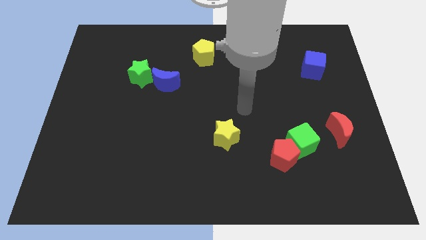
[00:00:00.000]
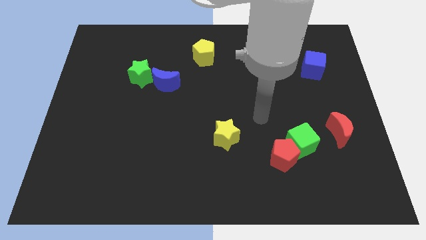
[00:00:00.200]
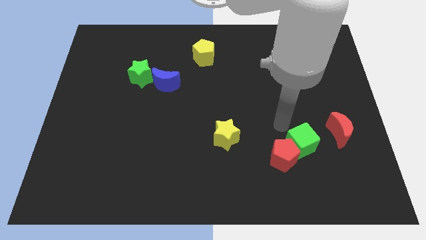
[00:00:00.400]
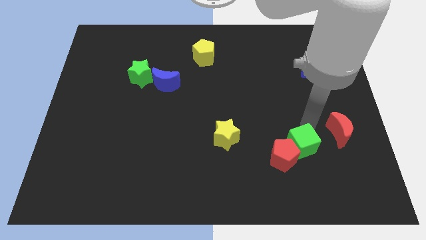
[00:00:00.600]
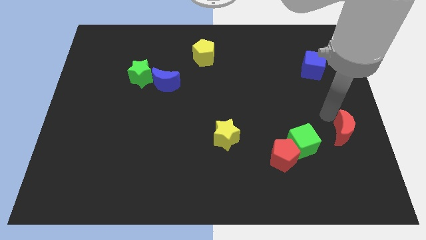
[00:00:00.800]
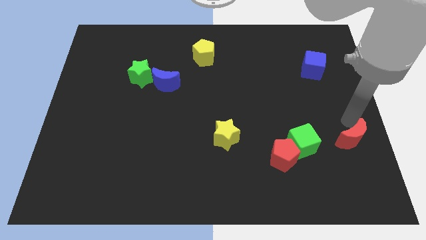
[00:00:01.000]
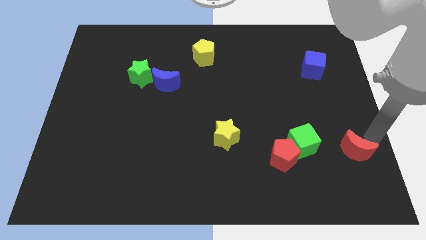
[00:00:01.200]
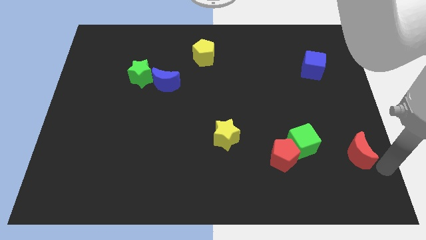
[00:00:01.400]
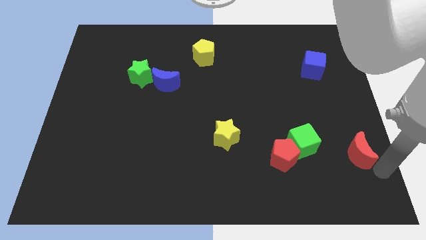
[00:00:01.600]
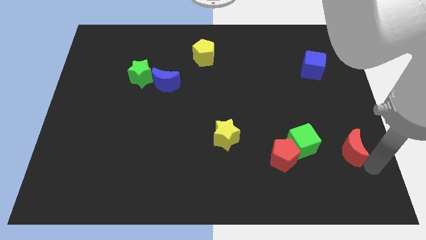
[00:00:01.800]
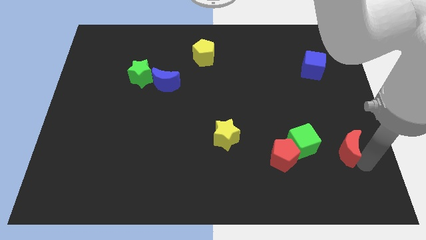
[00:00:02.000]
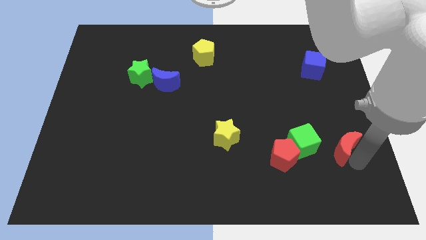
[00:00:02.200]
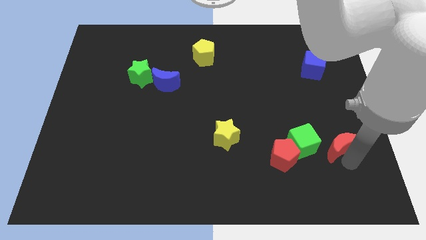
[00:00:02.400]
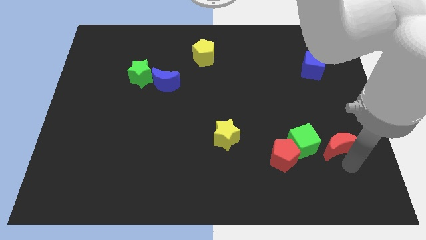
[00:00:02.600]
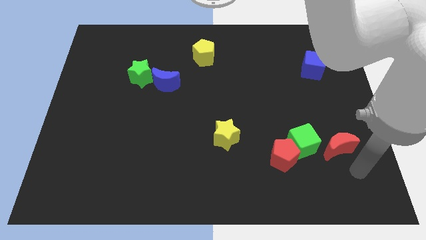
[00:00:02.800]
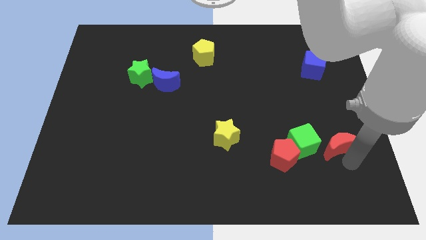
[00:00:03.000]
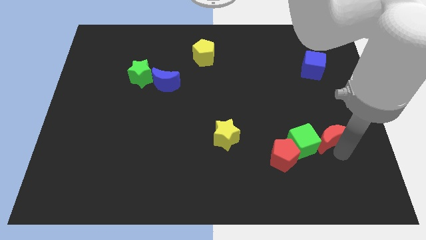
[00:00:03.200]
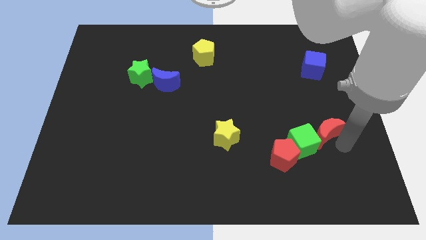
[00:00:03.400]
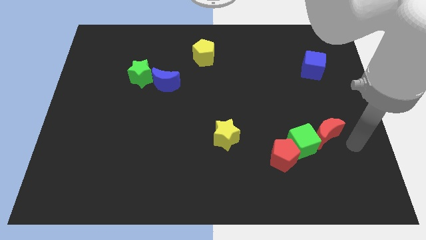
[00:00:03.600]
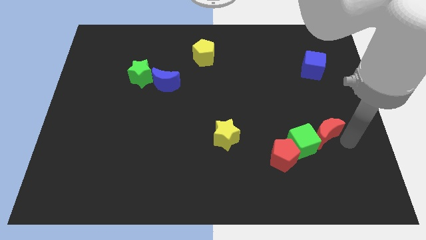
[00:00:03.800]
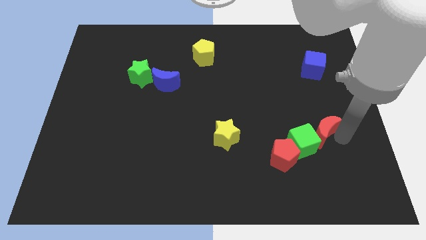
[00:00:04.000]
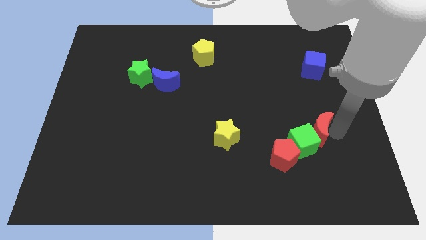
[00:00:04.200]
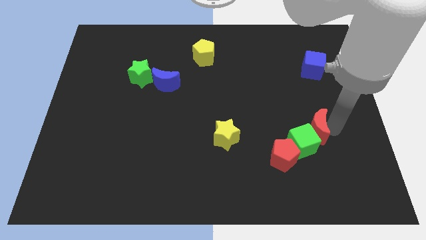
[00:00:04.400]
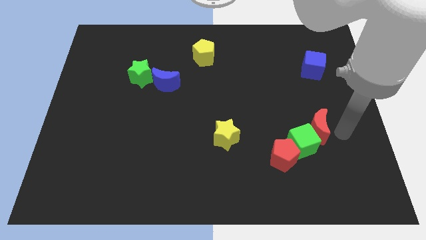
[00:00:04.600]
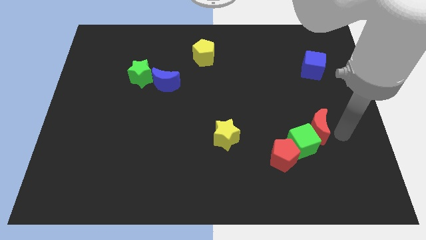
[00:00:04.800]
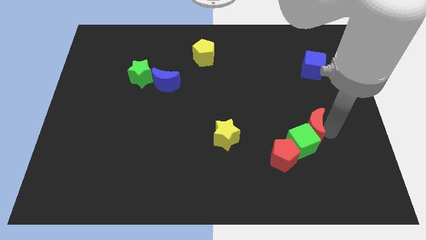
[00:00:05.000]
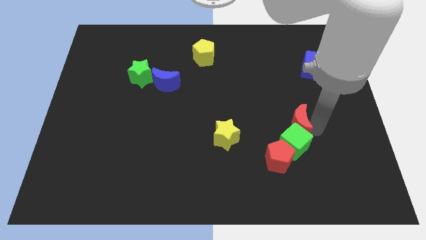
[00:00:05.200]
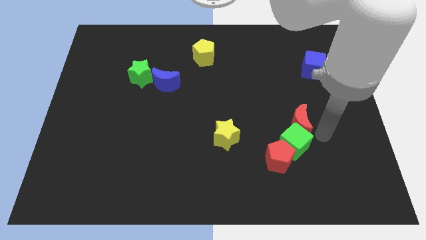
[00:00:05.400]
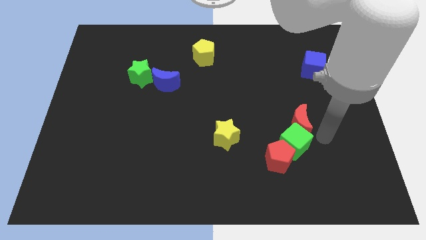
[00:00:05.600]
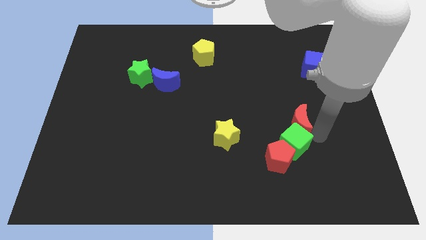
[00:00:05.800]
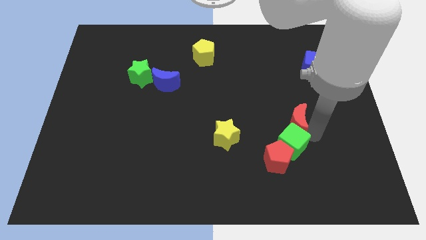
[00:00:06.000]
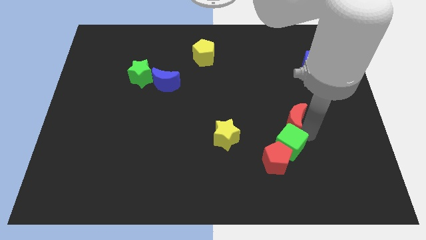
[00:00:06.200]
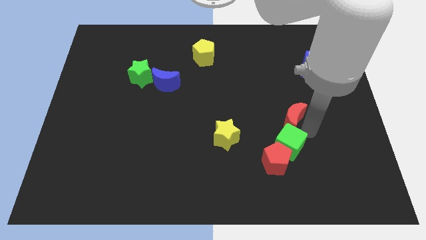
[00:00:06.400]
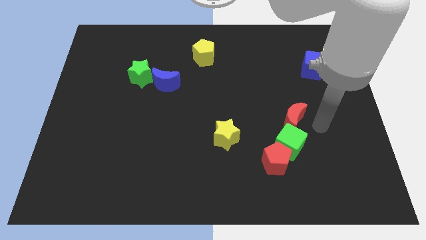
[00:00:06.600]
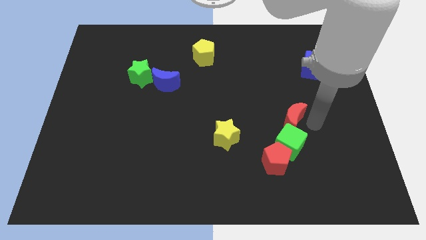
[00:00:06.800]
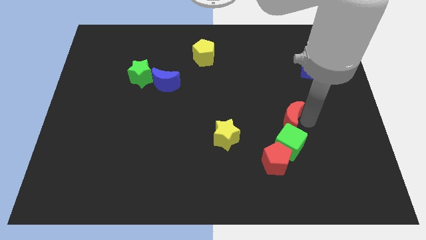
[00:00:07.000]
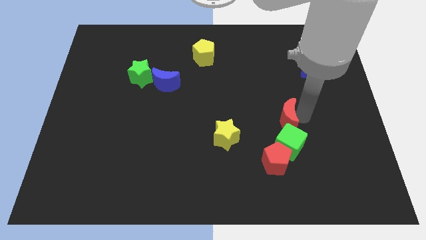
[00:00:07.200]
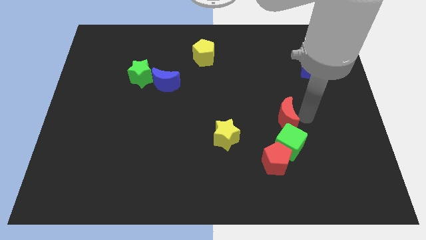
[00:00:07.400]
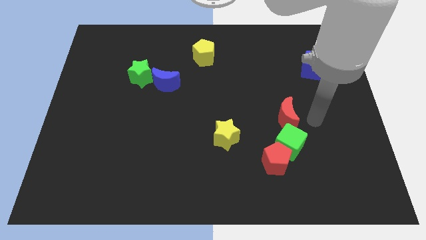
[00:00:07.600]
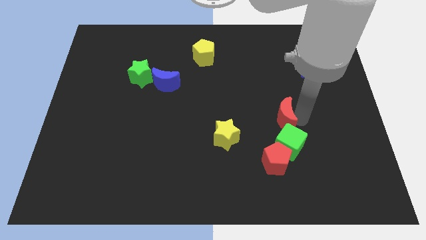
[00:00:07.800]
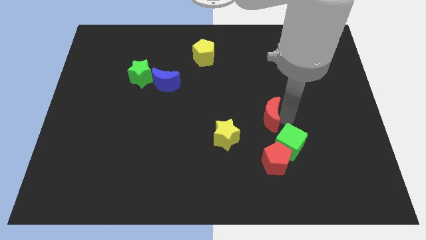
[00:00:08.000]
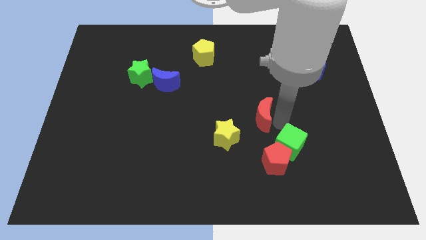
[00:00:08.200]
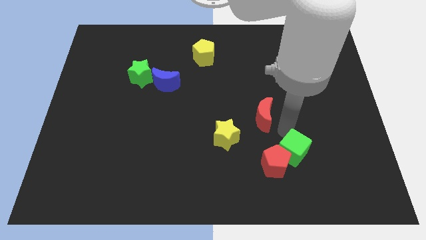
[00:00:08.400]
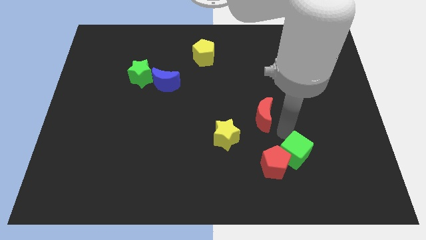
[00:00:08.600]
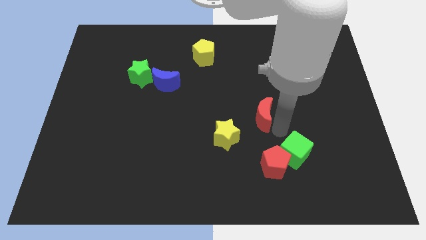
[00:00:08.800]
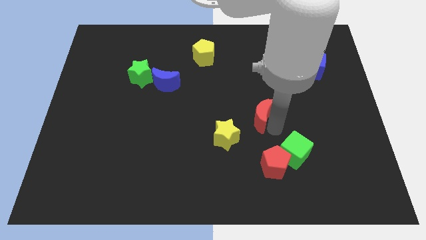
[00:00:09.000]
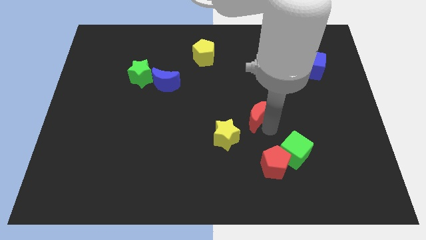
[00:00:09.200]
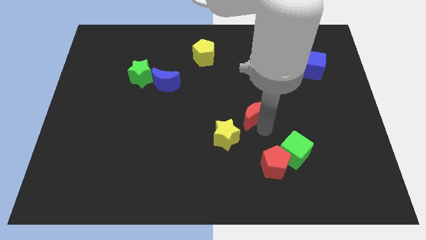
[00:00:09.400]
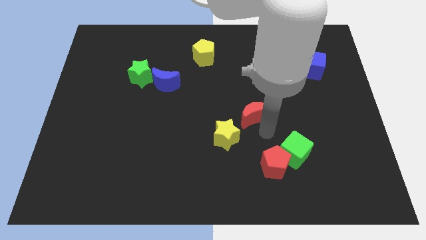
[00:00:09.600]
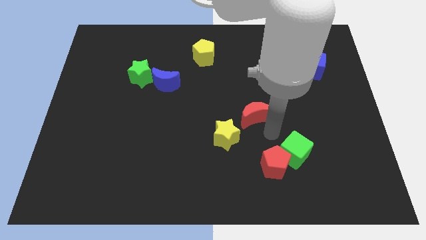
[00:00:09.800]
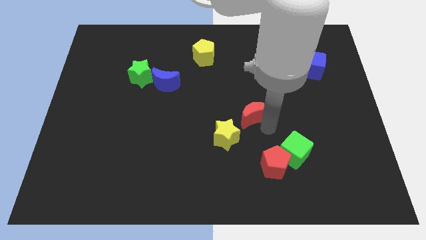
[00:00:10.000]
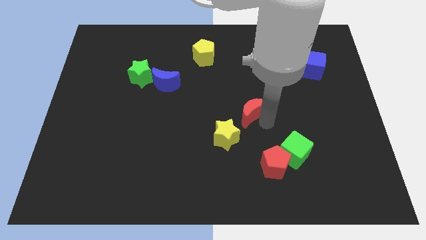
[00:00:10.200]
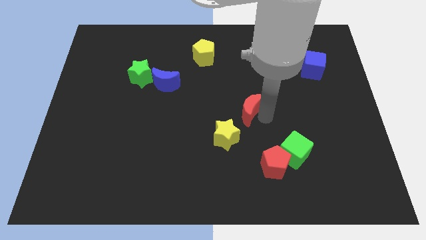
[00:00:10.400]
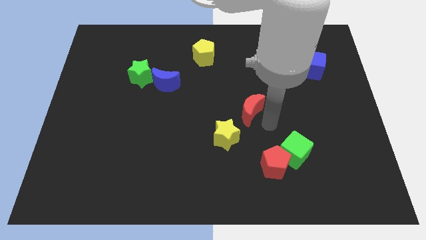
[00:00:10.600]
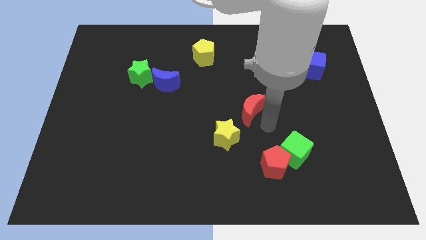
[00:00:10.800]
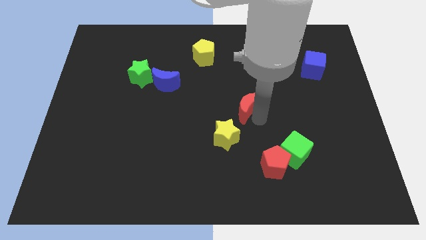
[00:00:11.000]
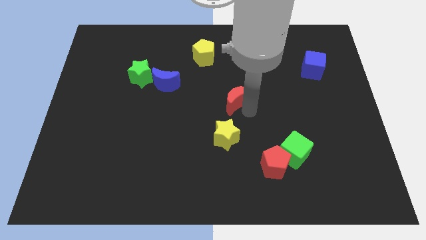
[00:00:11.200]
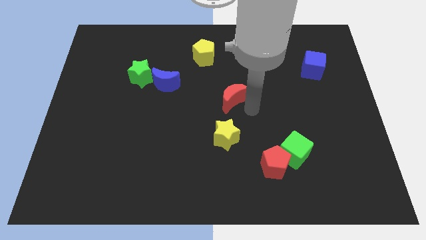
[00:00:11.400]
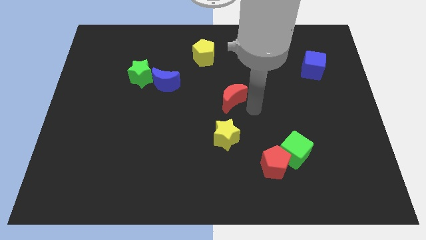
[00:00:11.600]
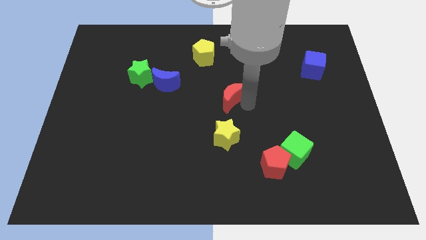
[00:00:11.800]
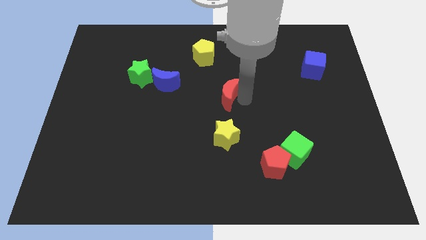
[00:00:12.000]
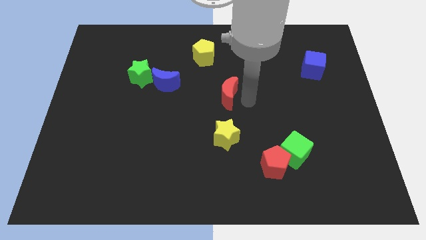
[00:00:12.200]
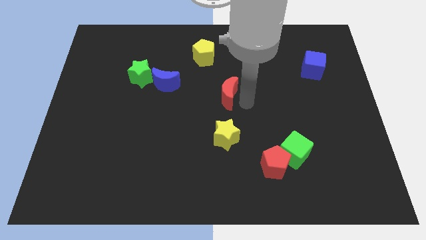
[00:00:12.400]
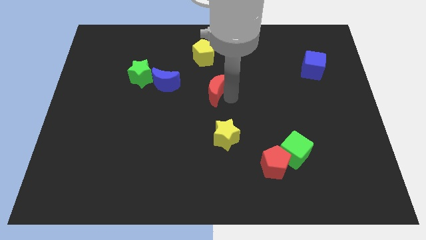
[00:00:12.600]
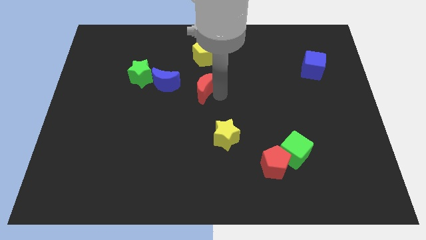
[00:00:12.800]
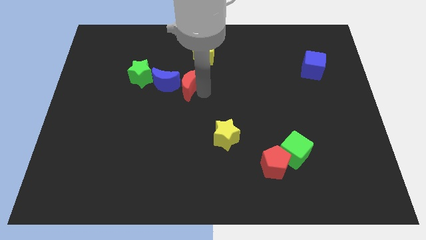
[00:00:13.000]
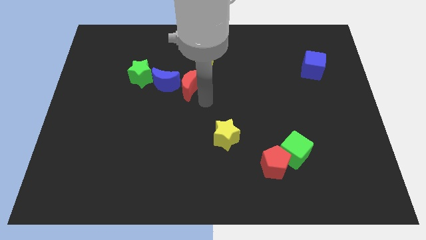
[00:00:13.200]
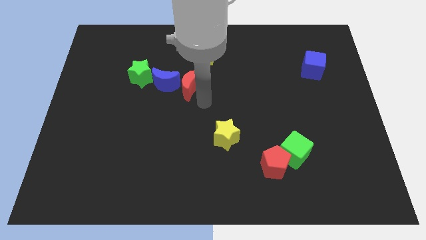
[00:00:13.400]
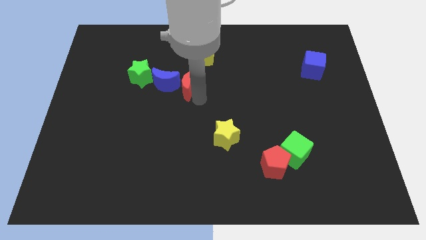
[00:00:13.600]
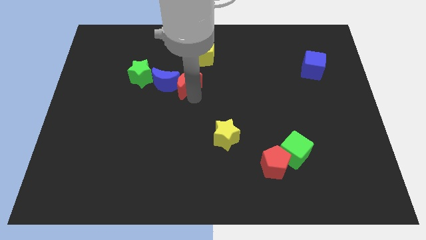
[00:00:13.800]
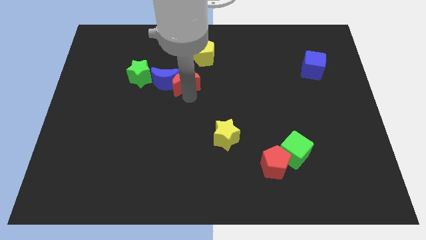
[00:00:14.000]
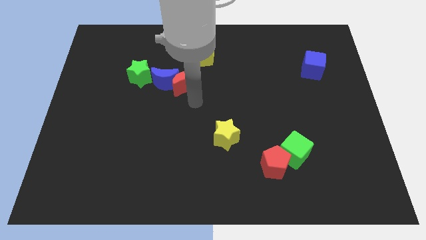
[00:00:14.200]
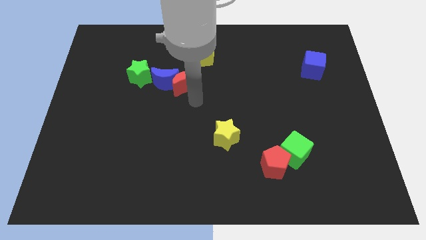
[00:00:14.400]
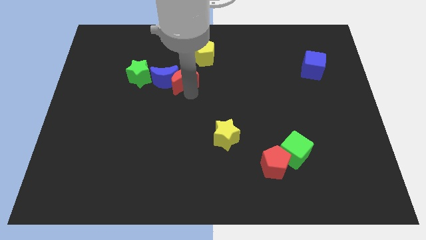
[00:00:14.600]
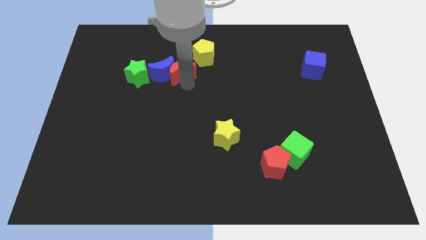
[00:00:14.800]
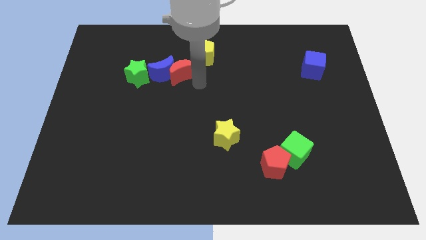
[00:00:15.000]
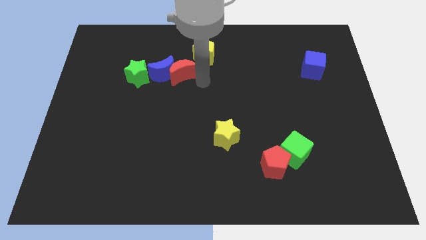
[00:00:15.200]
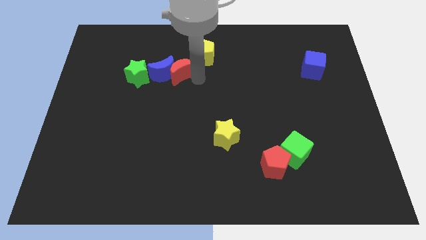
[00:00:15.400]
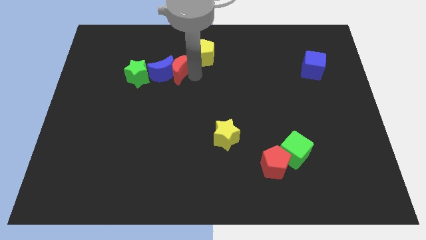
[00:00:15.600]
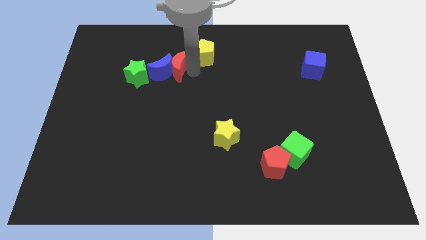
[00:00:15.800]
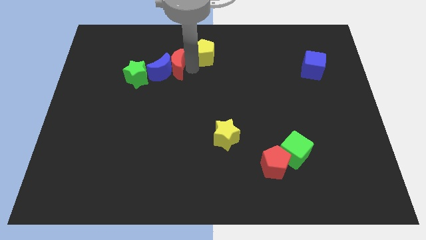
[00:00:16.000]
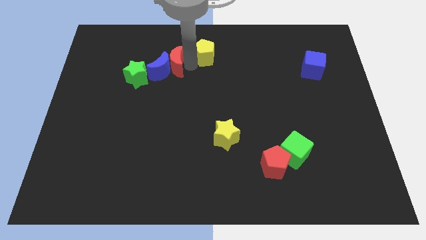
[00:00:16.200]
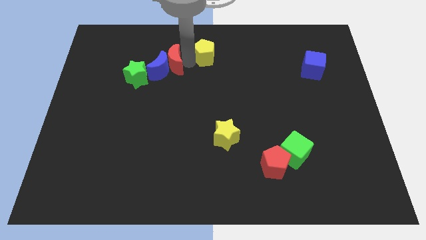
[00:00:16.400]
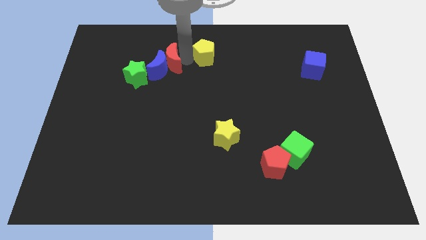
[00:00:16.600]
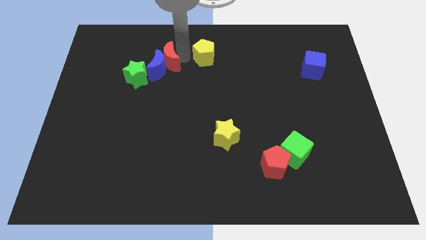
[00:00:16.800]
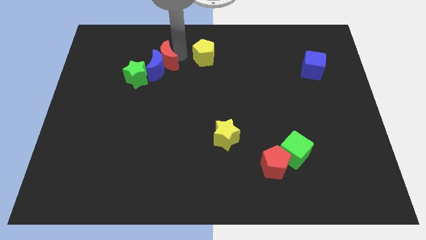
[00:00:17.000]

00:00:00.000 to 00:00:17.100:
slide the red moon to the top left of the blue moon
